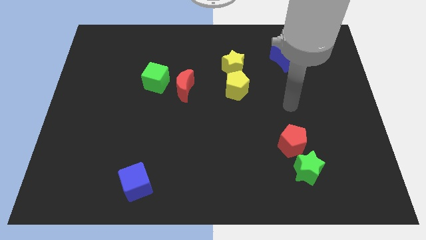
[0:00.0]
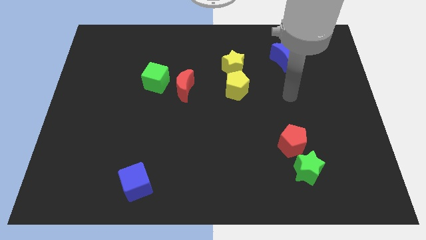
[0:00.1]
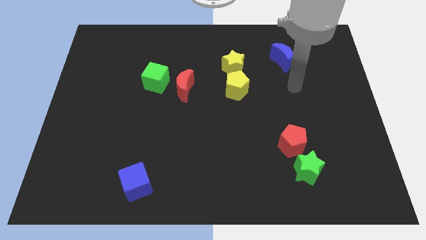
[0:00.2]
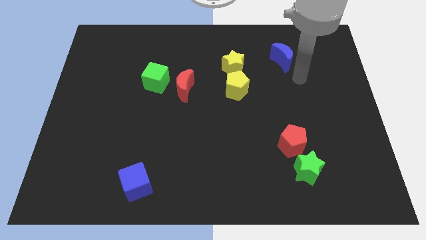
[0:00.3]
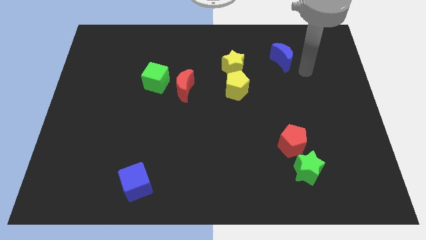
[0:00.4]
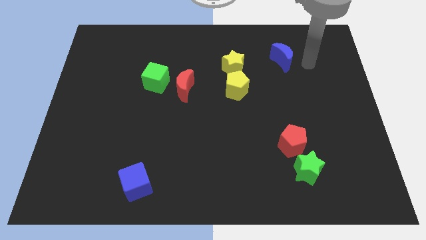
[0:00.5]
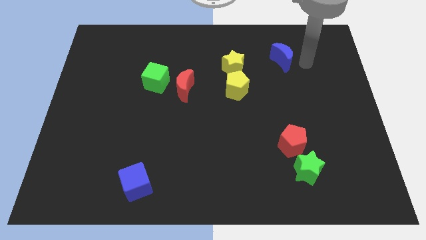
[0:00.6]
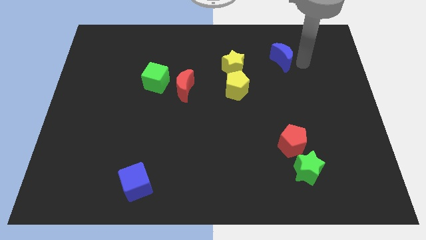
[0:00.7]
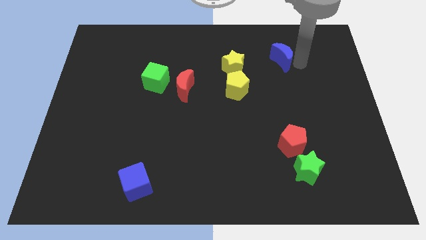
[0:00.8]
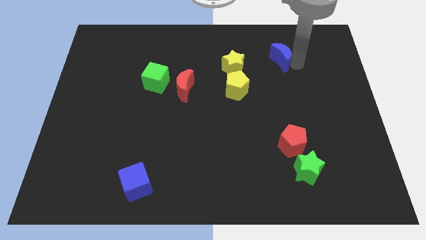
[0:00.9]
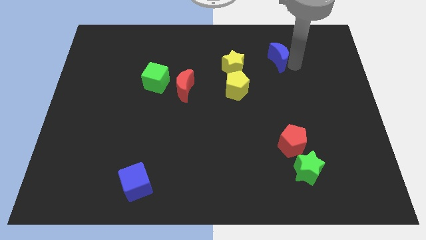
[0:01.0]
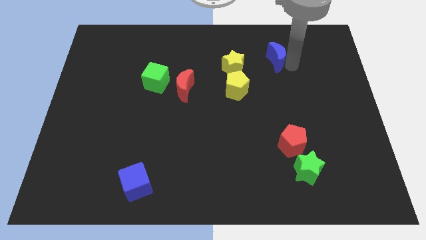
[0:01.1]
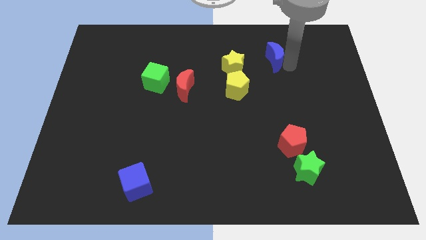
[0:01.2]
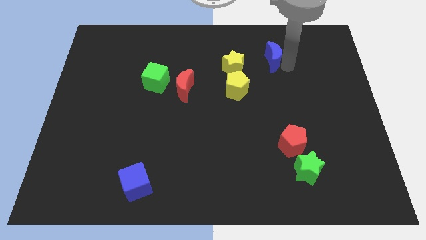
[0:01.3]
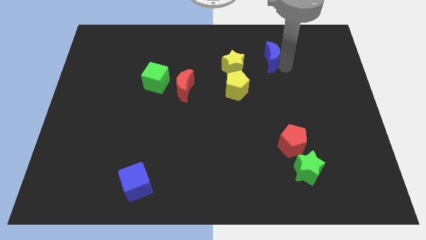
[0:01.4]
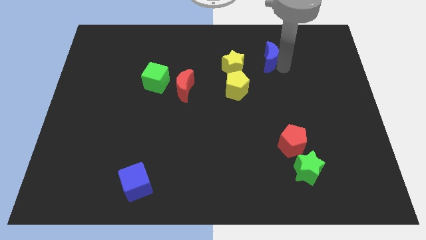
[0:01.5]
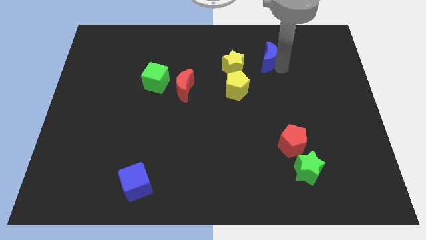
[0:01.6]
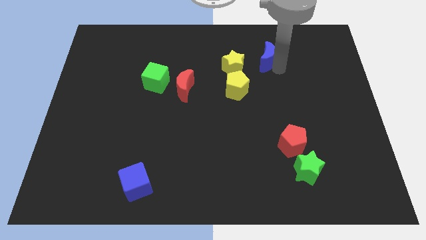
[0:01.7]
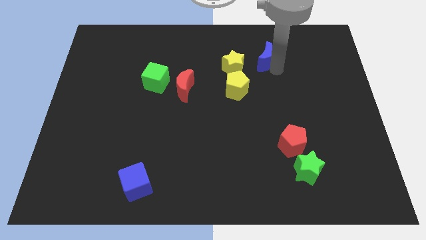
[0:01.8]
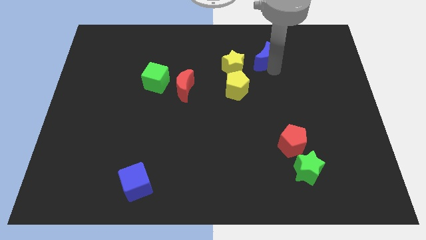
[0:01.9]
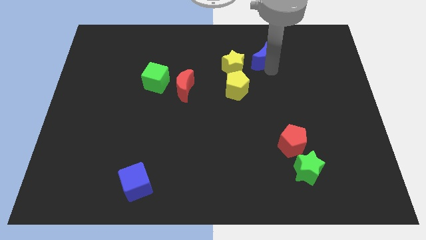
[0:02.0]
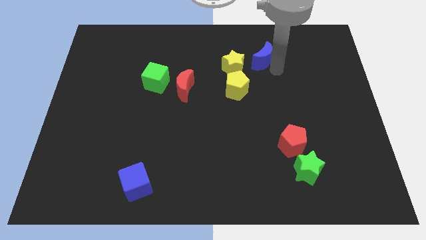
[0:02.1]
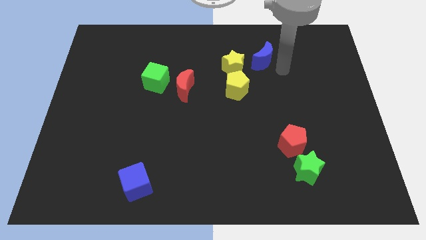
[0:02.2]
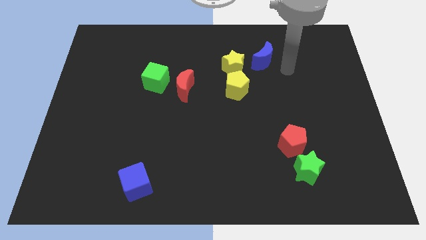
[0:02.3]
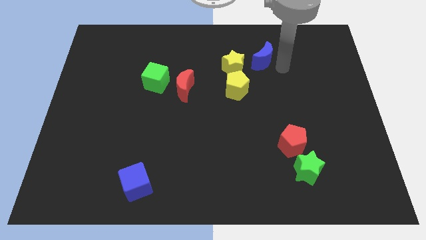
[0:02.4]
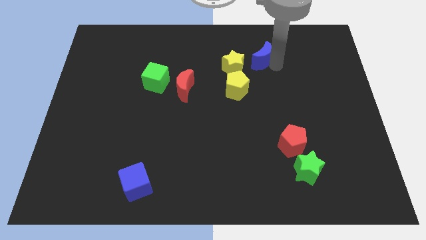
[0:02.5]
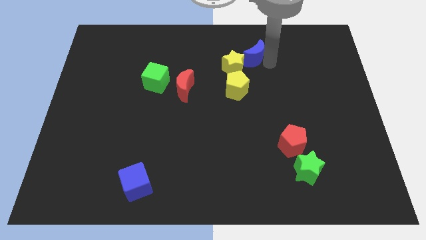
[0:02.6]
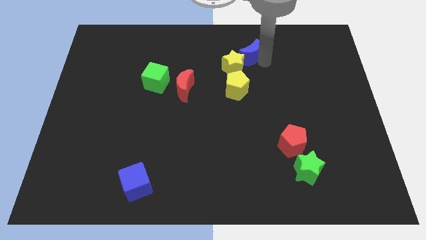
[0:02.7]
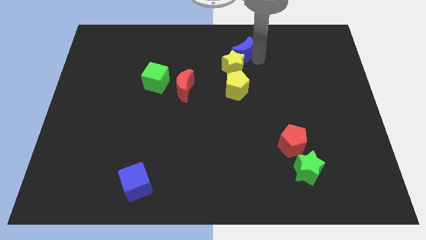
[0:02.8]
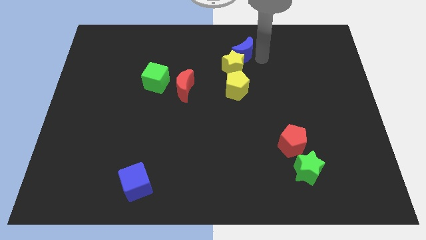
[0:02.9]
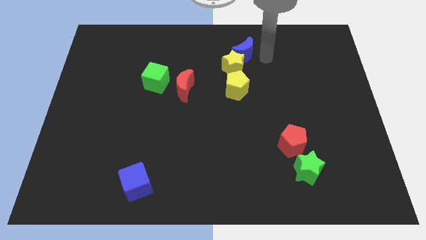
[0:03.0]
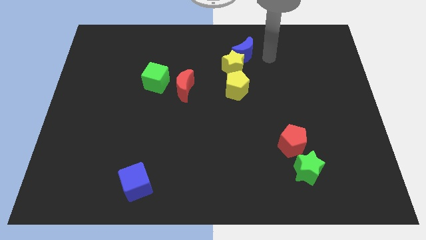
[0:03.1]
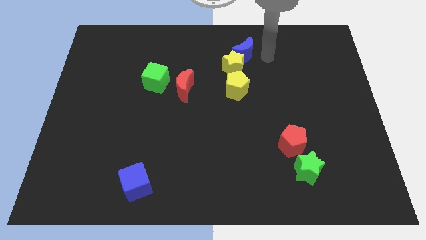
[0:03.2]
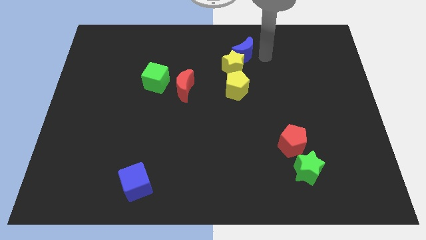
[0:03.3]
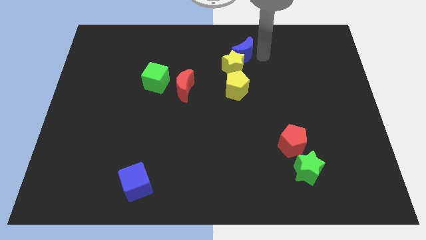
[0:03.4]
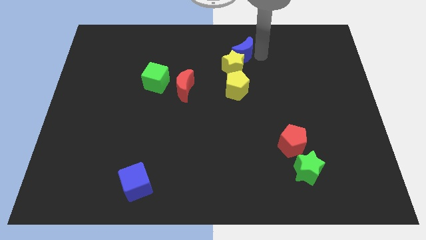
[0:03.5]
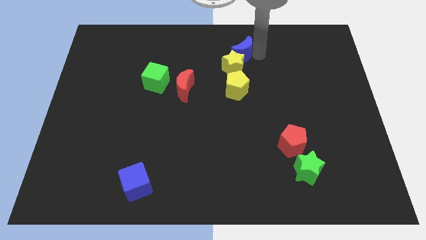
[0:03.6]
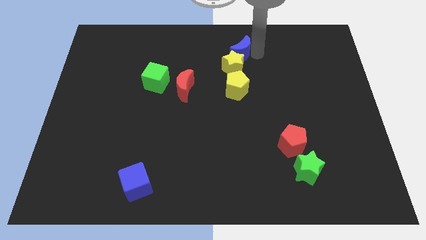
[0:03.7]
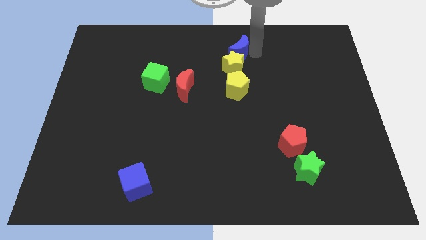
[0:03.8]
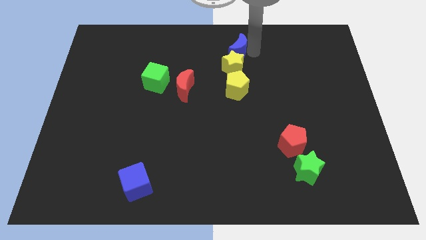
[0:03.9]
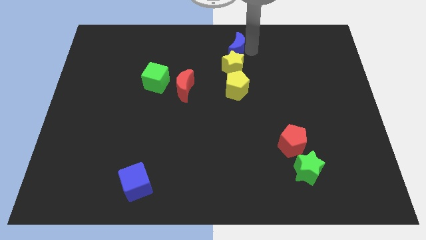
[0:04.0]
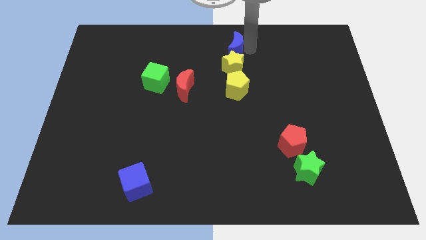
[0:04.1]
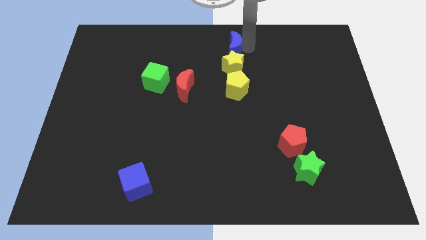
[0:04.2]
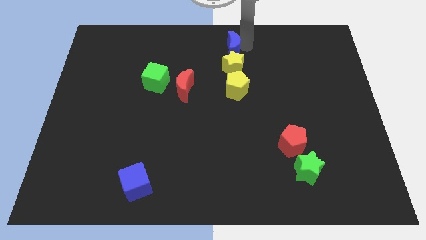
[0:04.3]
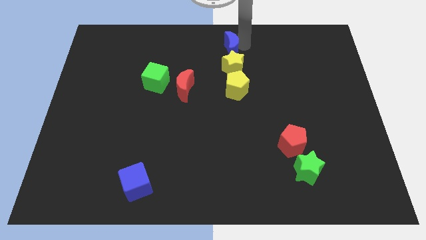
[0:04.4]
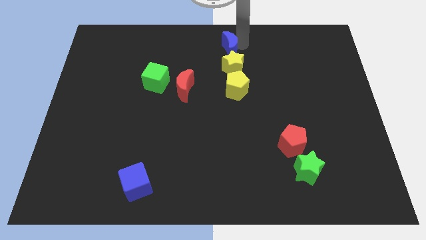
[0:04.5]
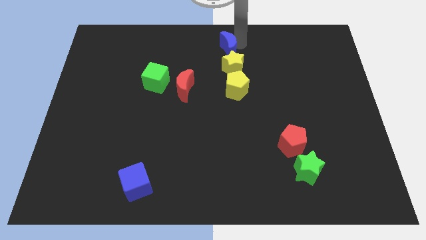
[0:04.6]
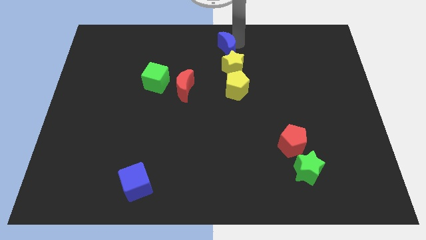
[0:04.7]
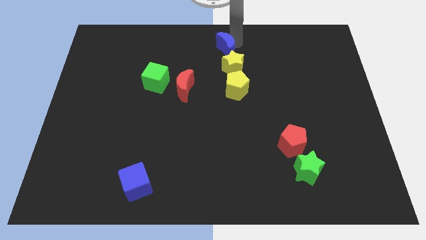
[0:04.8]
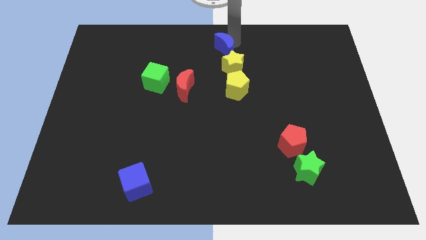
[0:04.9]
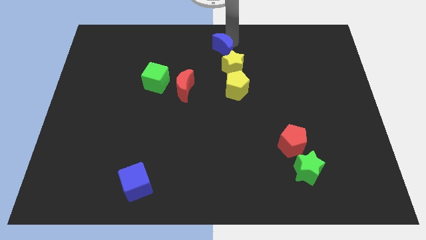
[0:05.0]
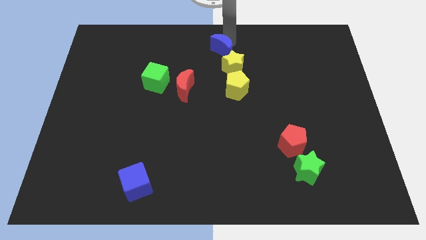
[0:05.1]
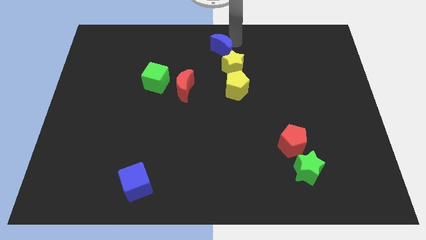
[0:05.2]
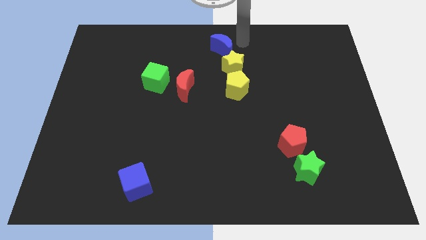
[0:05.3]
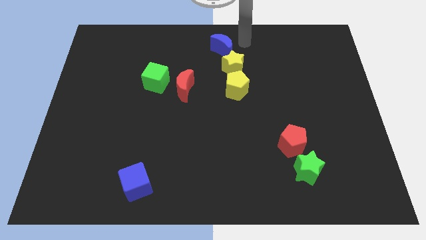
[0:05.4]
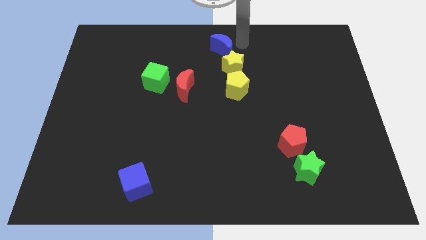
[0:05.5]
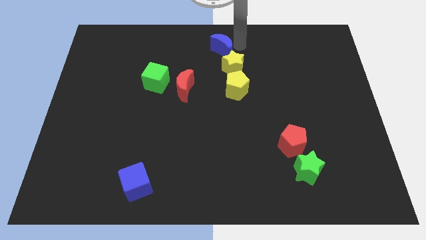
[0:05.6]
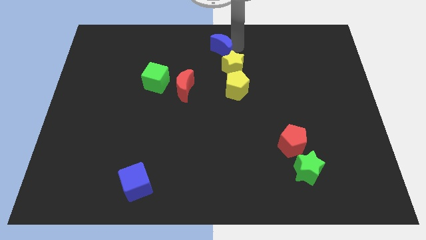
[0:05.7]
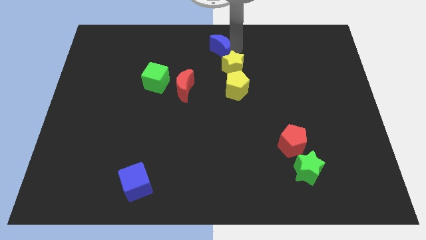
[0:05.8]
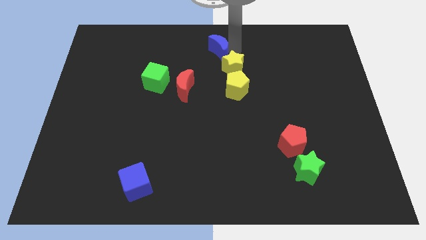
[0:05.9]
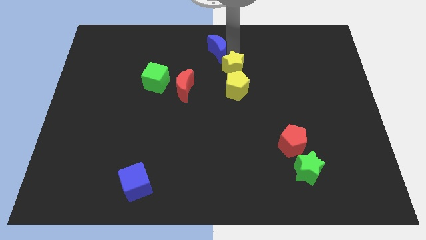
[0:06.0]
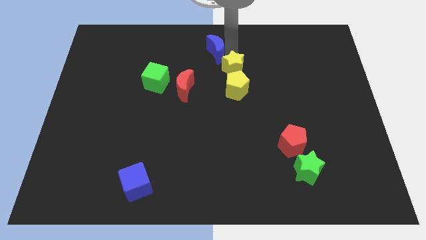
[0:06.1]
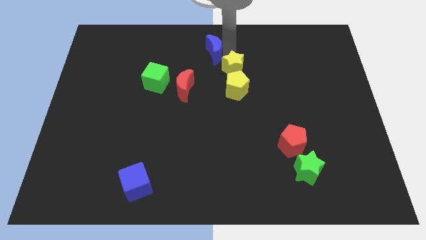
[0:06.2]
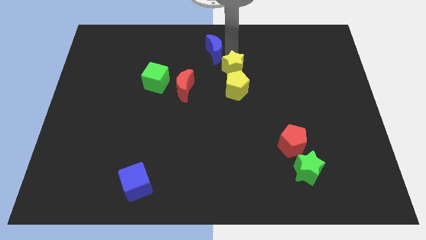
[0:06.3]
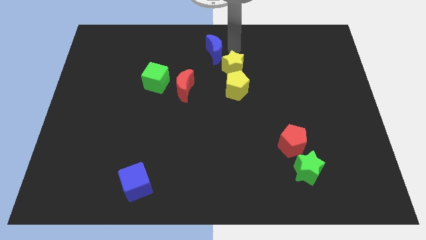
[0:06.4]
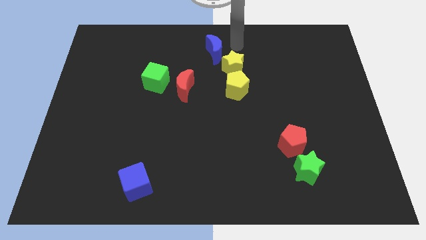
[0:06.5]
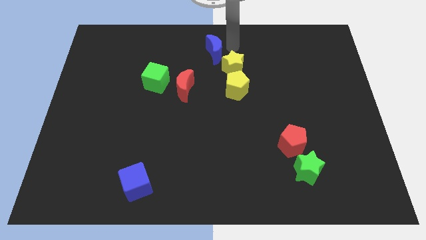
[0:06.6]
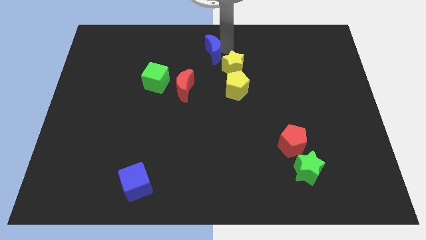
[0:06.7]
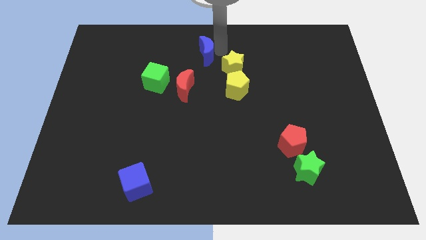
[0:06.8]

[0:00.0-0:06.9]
move the blue moon to the left

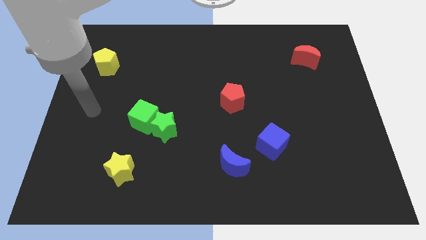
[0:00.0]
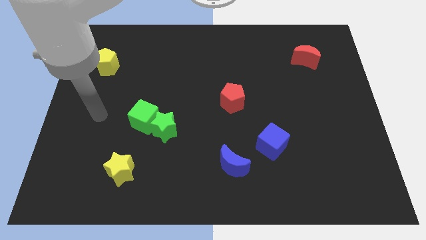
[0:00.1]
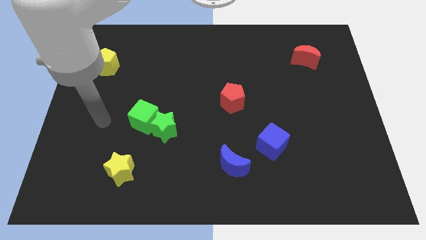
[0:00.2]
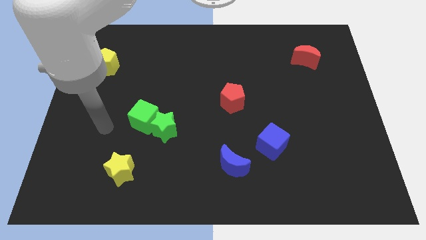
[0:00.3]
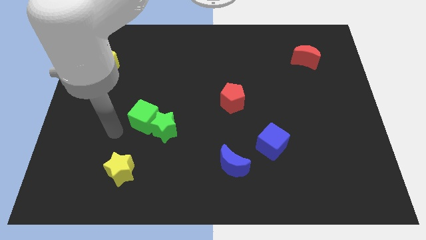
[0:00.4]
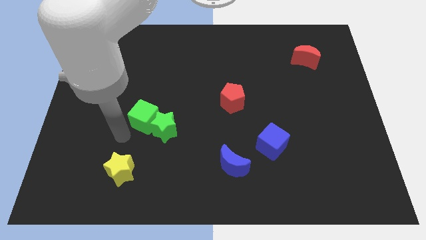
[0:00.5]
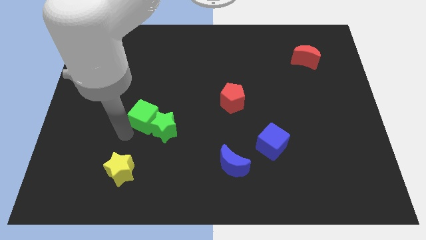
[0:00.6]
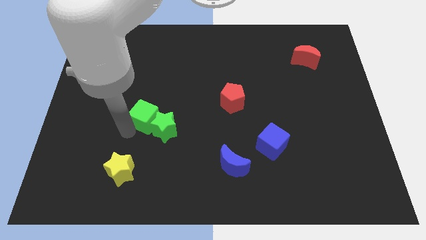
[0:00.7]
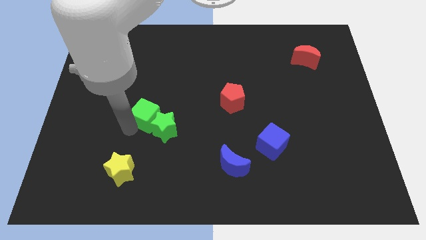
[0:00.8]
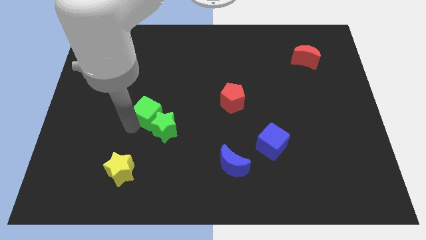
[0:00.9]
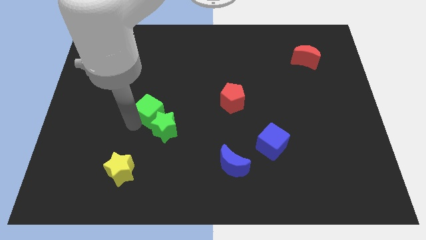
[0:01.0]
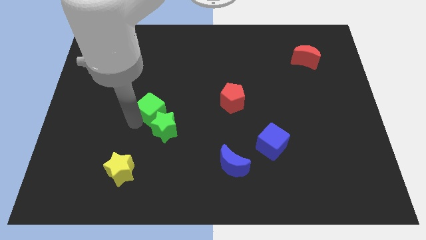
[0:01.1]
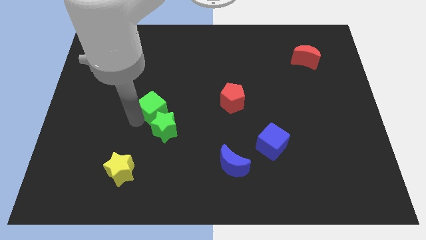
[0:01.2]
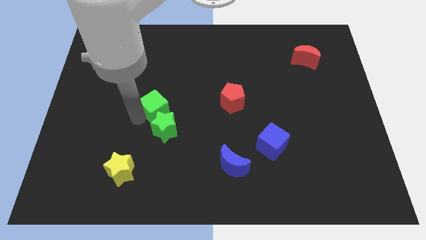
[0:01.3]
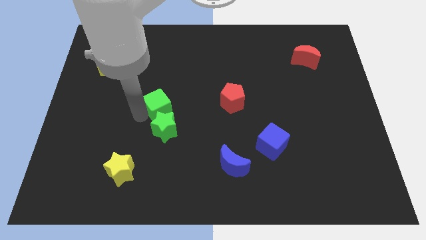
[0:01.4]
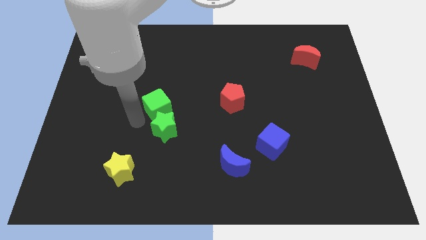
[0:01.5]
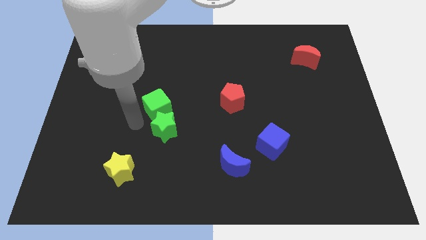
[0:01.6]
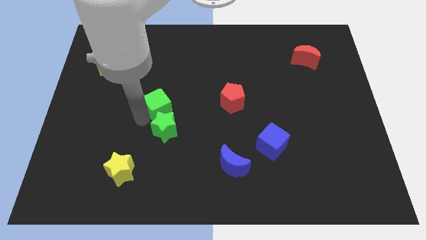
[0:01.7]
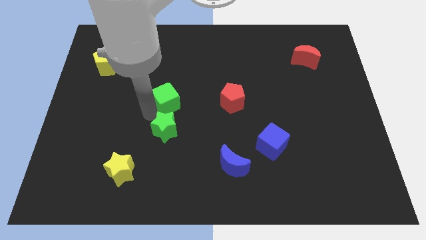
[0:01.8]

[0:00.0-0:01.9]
slightly move the green cube up and to the right diagonally
